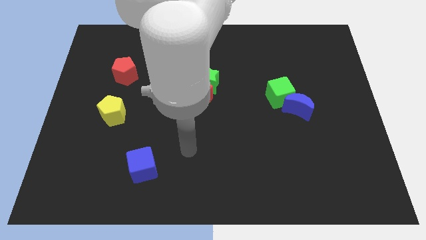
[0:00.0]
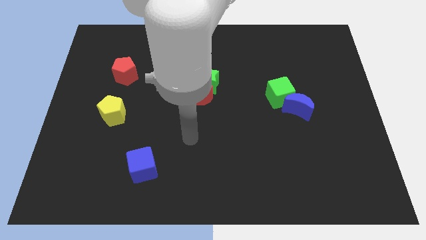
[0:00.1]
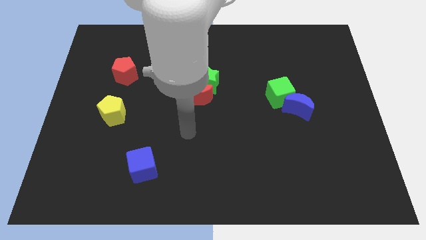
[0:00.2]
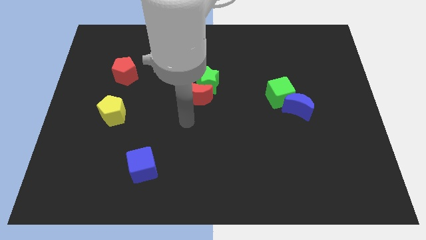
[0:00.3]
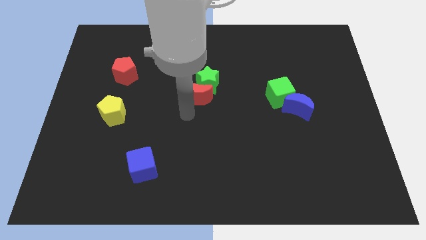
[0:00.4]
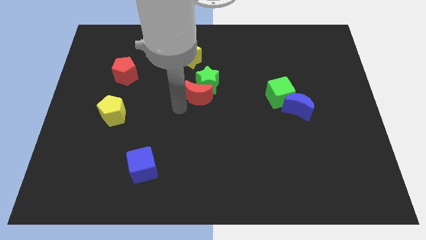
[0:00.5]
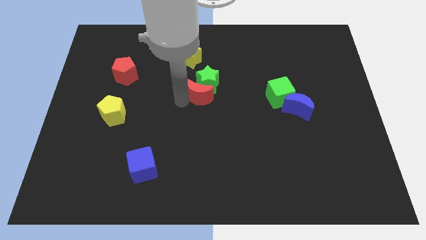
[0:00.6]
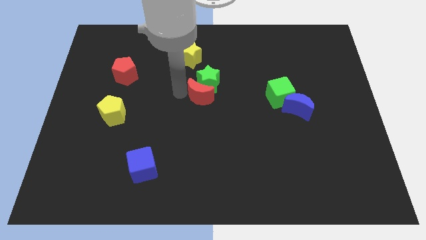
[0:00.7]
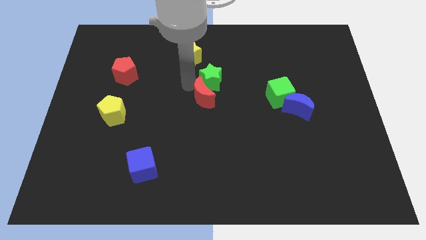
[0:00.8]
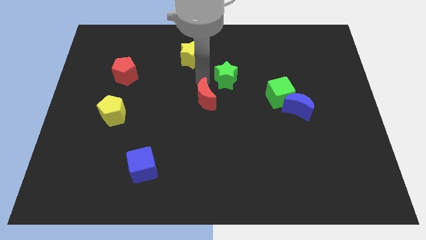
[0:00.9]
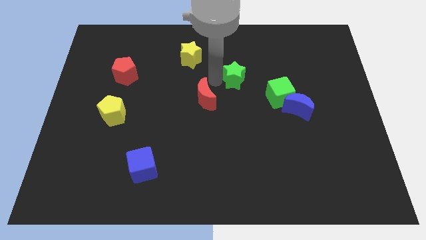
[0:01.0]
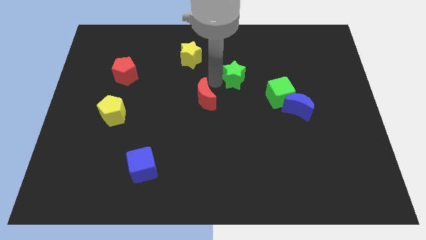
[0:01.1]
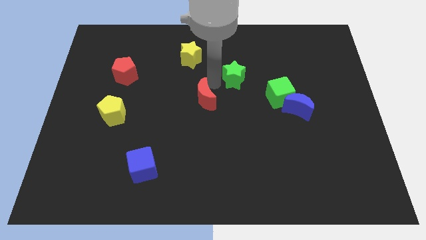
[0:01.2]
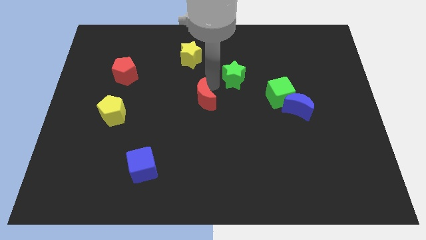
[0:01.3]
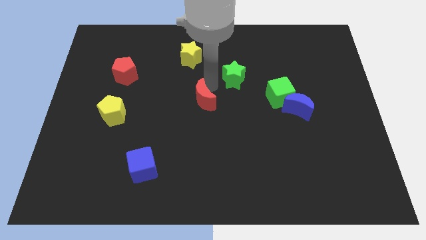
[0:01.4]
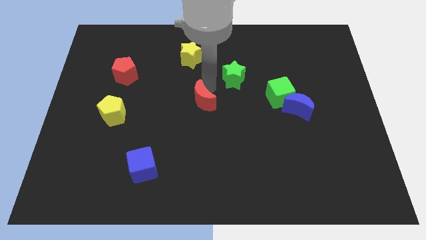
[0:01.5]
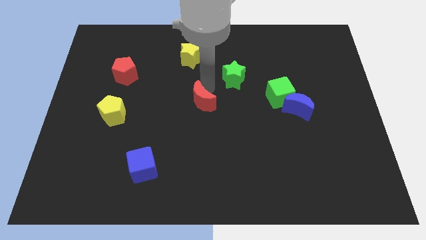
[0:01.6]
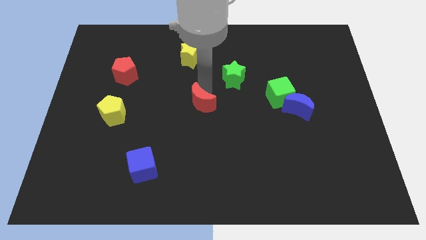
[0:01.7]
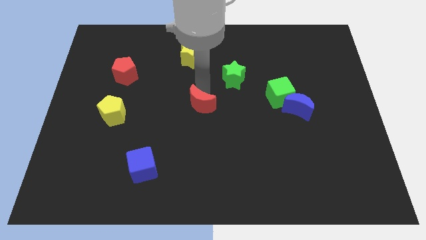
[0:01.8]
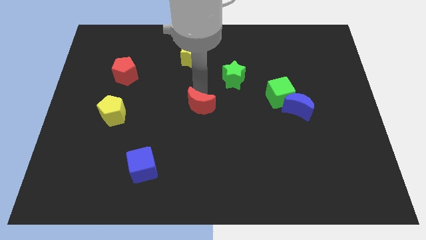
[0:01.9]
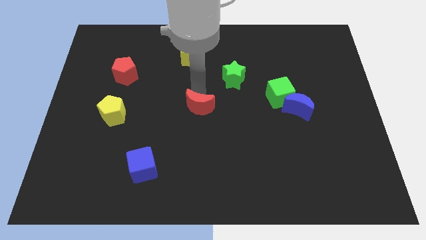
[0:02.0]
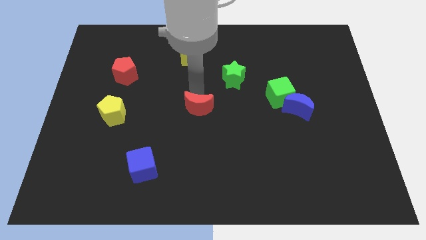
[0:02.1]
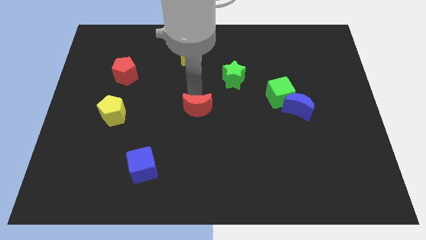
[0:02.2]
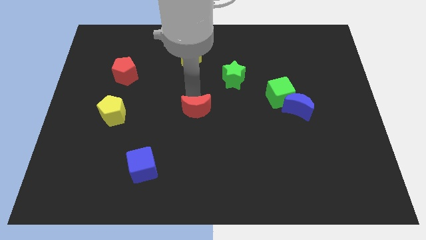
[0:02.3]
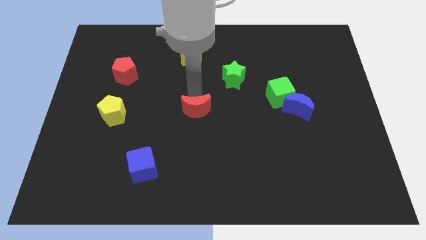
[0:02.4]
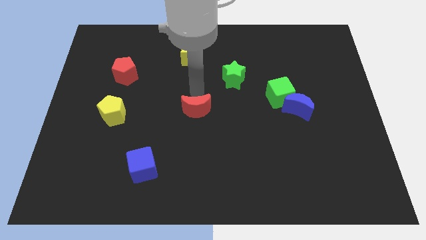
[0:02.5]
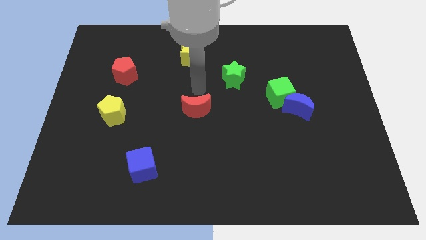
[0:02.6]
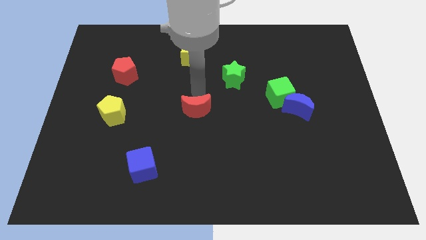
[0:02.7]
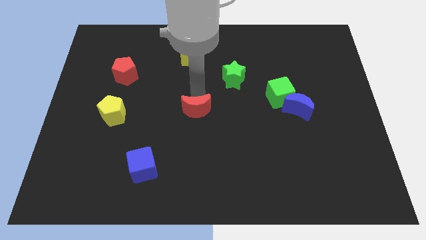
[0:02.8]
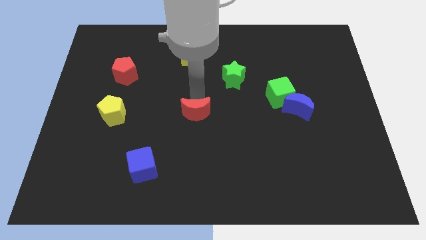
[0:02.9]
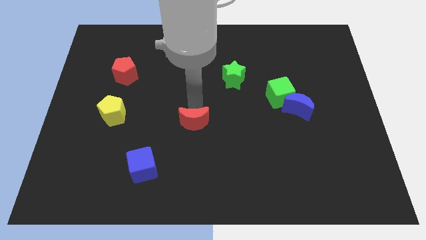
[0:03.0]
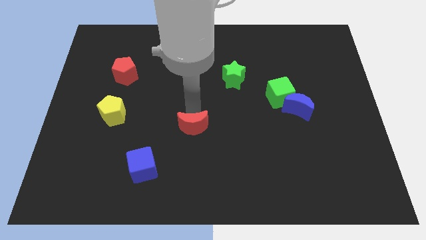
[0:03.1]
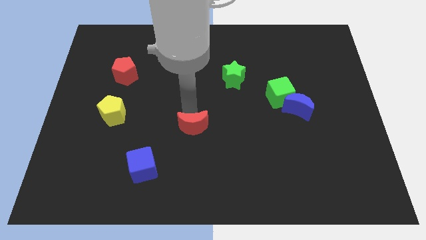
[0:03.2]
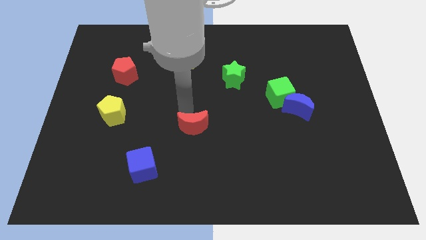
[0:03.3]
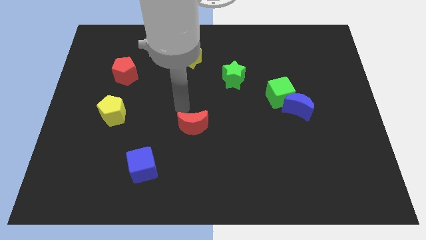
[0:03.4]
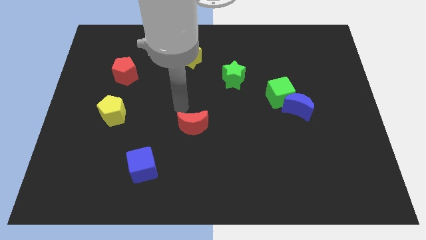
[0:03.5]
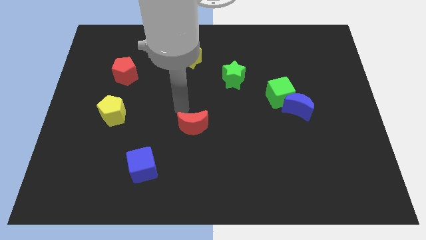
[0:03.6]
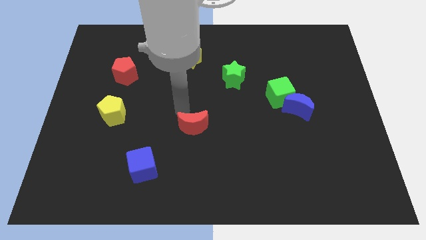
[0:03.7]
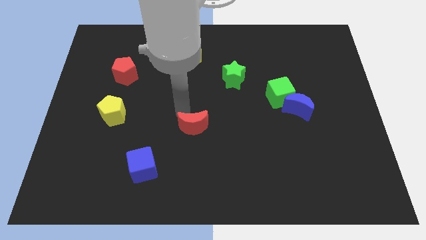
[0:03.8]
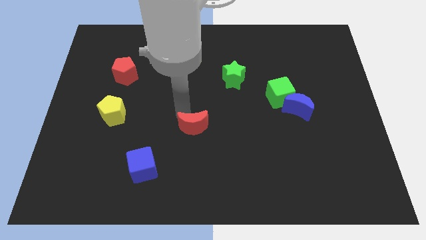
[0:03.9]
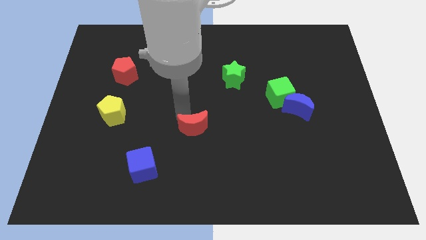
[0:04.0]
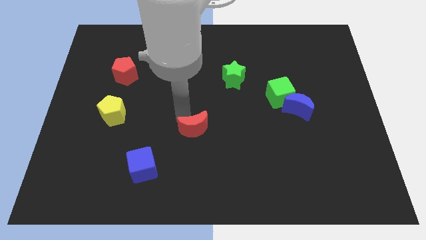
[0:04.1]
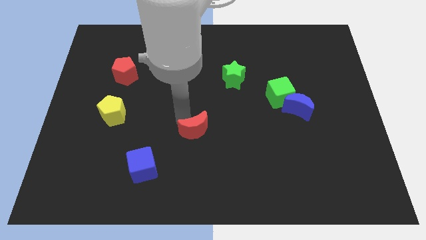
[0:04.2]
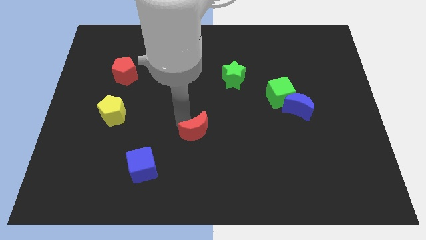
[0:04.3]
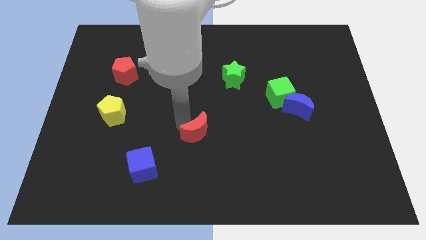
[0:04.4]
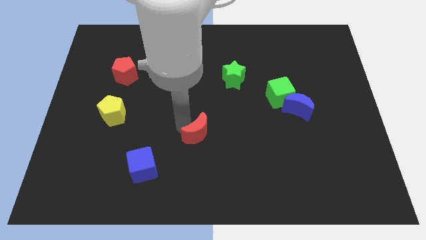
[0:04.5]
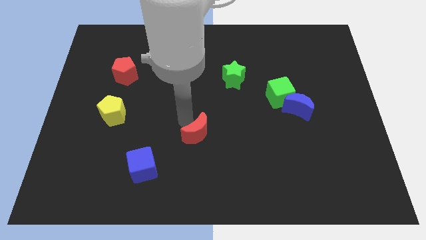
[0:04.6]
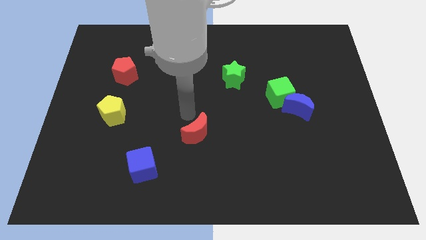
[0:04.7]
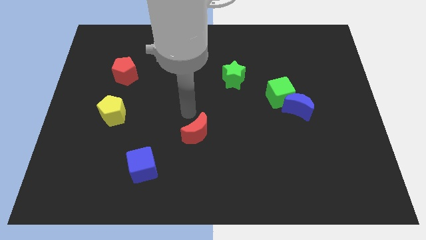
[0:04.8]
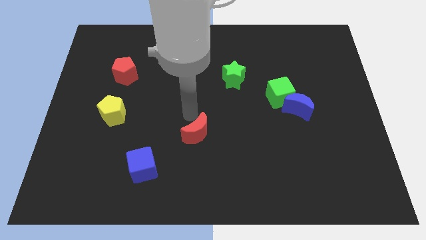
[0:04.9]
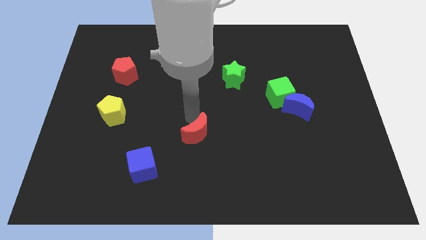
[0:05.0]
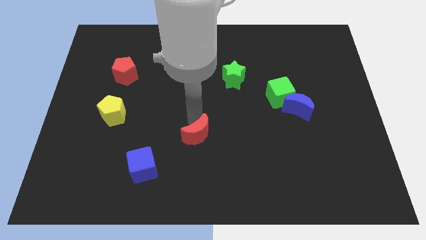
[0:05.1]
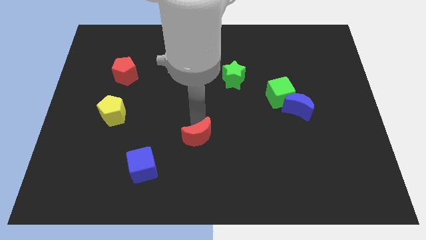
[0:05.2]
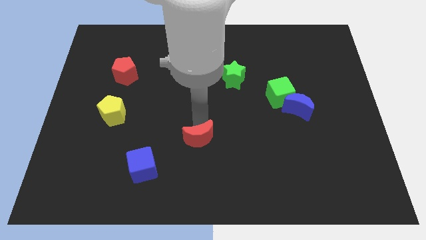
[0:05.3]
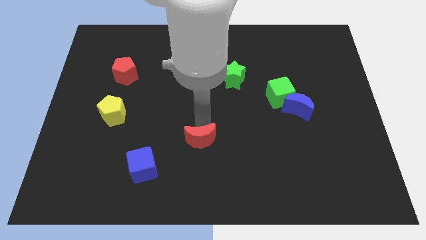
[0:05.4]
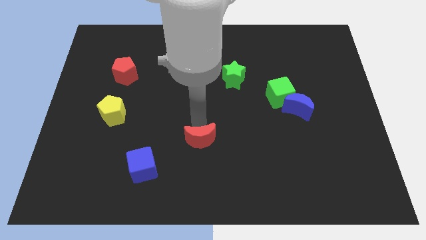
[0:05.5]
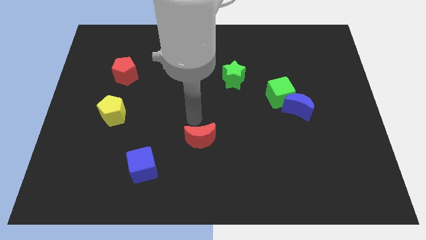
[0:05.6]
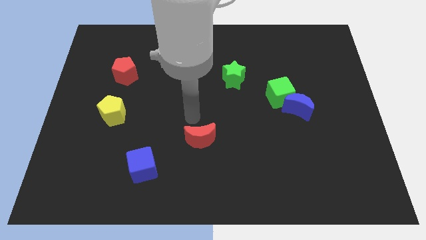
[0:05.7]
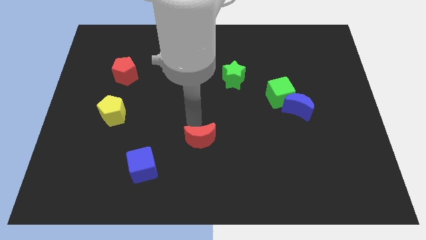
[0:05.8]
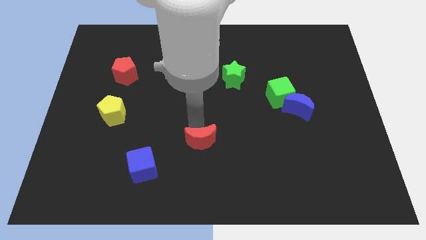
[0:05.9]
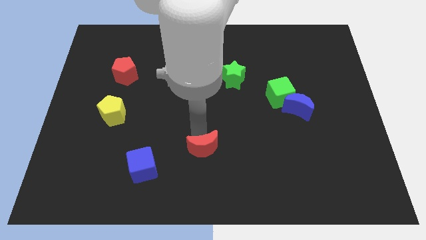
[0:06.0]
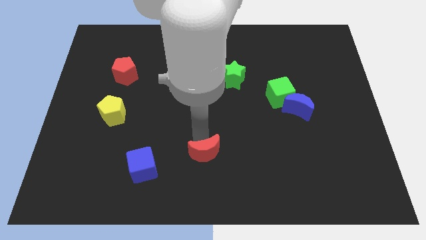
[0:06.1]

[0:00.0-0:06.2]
slide the red moon to the bottom
